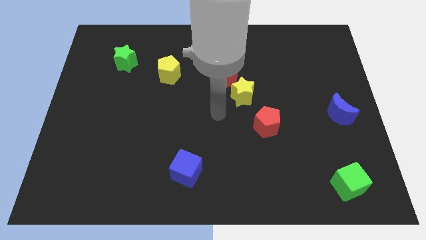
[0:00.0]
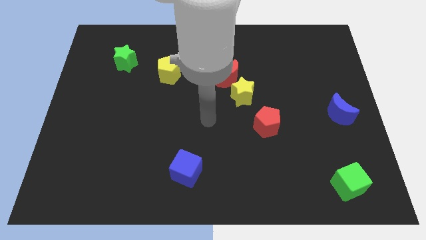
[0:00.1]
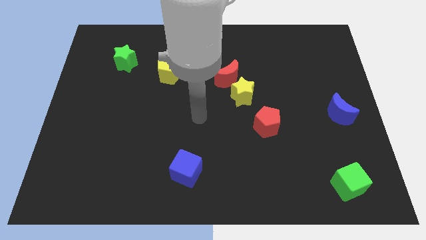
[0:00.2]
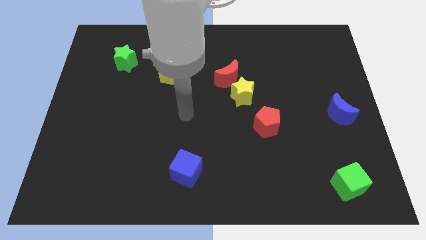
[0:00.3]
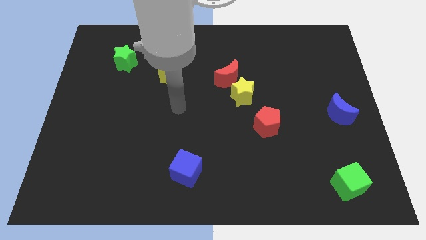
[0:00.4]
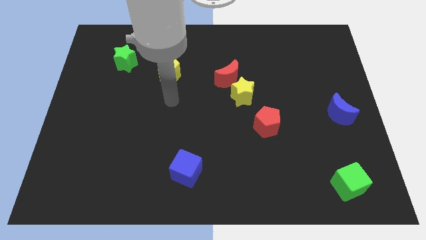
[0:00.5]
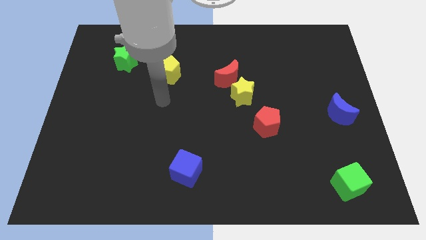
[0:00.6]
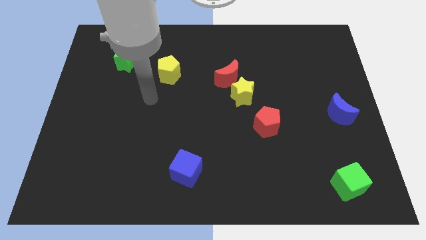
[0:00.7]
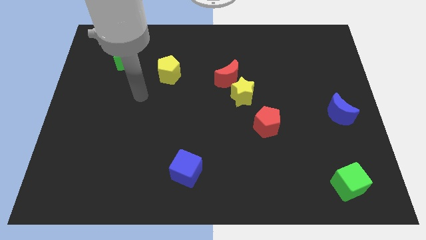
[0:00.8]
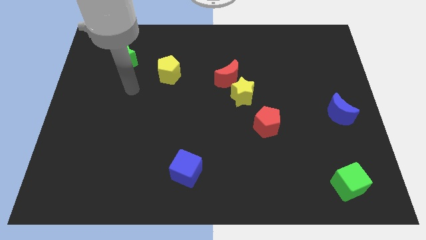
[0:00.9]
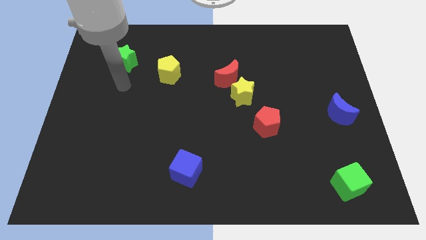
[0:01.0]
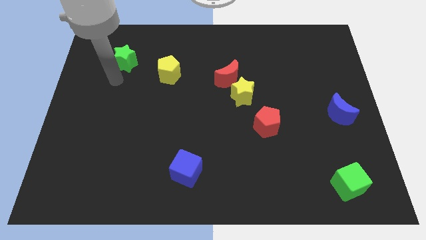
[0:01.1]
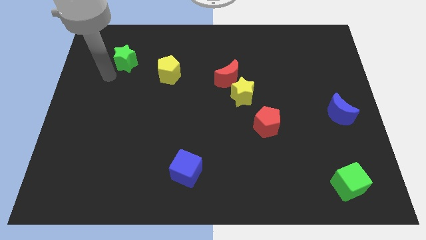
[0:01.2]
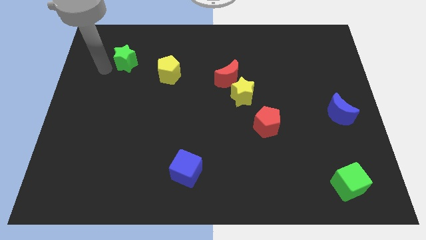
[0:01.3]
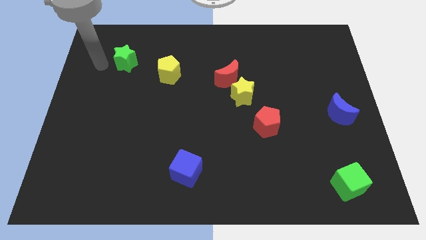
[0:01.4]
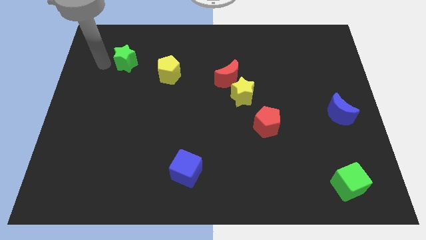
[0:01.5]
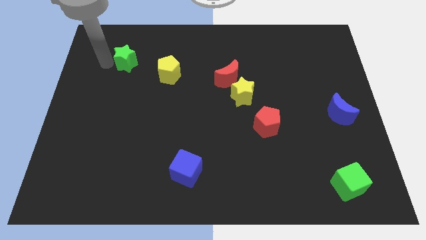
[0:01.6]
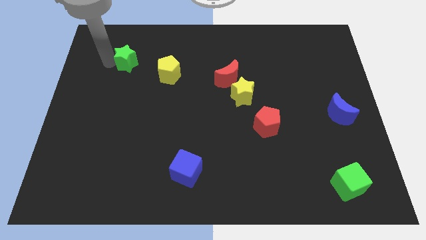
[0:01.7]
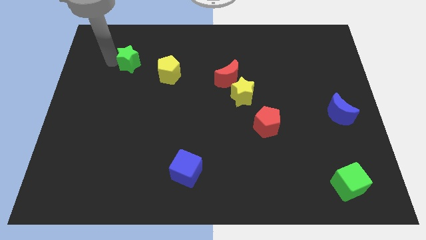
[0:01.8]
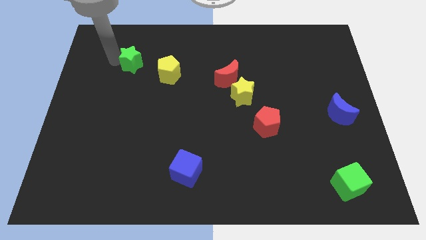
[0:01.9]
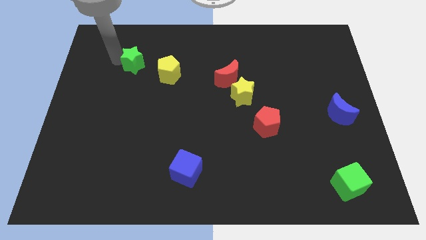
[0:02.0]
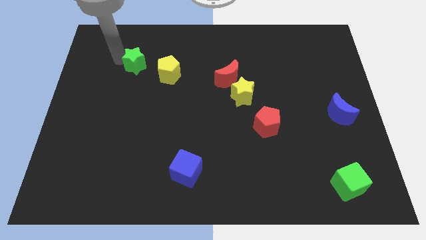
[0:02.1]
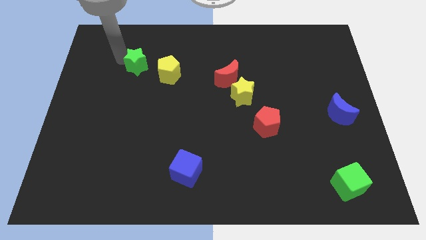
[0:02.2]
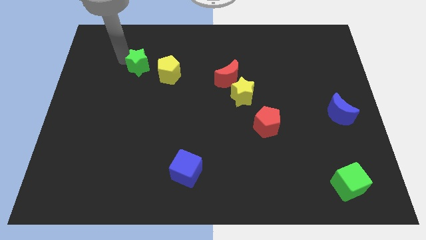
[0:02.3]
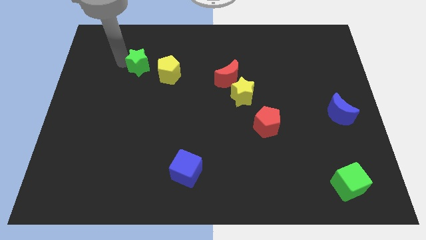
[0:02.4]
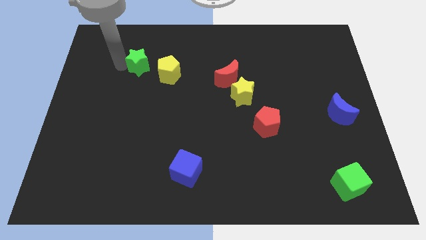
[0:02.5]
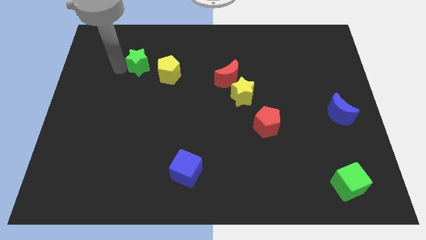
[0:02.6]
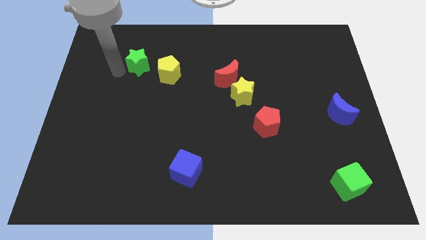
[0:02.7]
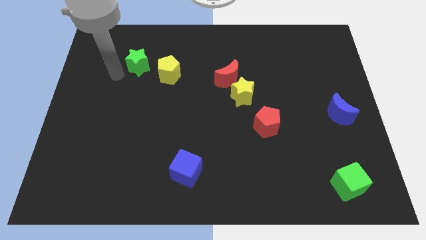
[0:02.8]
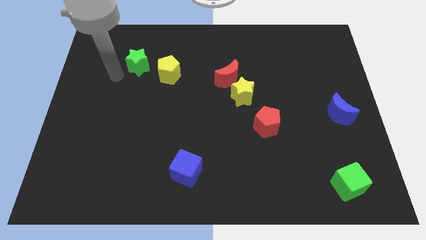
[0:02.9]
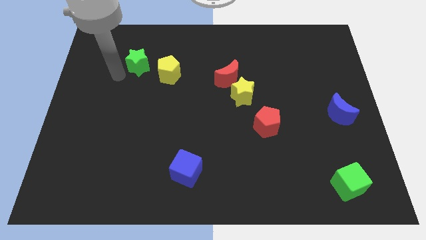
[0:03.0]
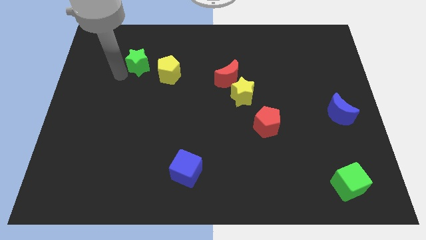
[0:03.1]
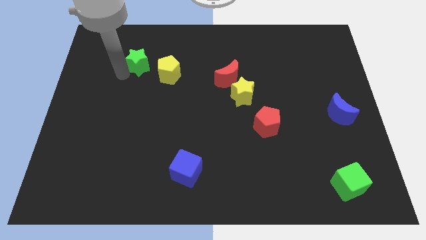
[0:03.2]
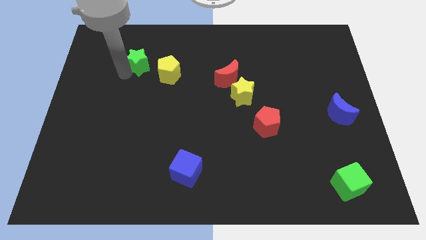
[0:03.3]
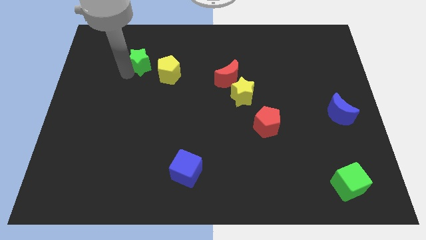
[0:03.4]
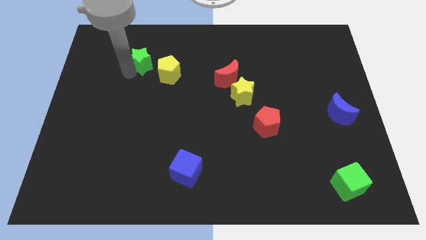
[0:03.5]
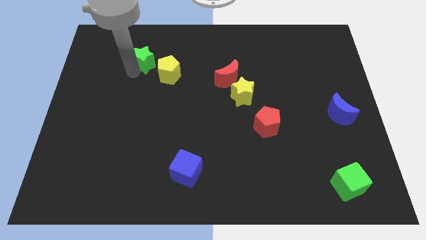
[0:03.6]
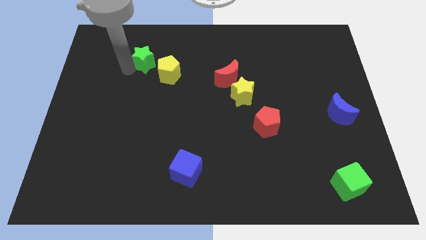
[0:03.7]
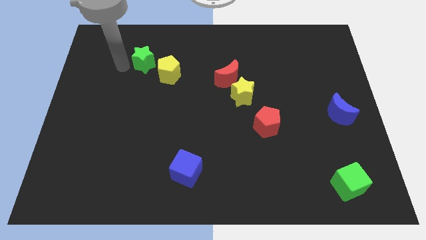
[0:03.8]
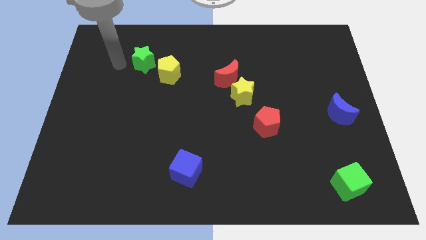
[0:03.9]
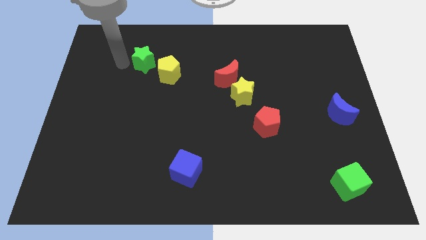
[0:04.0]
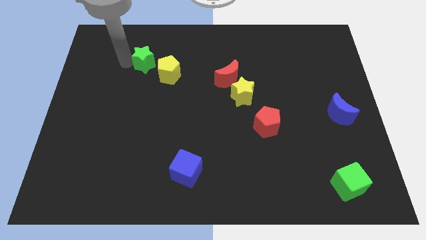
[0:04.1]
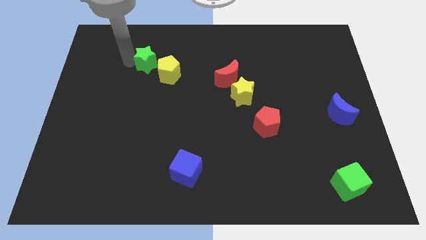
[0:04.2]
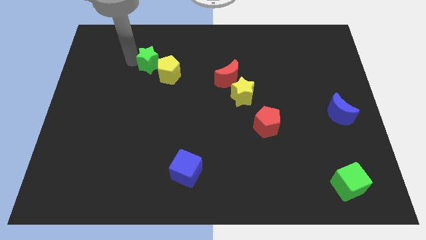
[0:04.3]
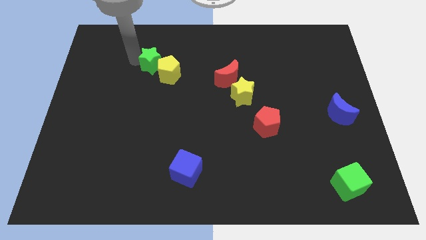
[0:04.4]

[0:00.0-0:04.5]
slightly push the green star to the right

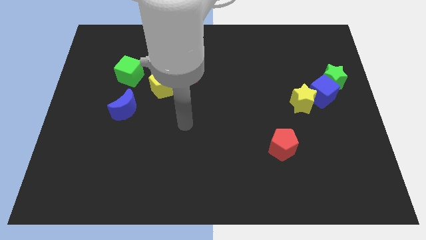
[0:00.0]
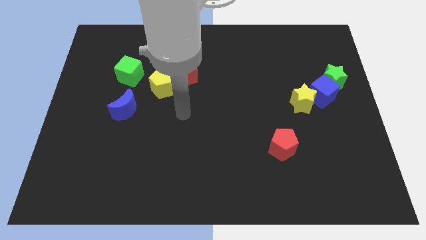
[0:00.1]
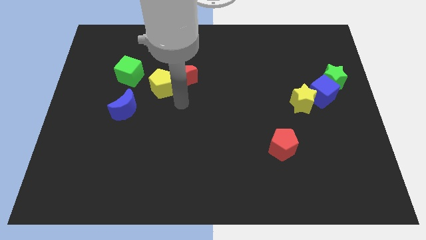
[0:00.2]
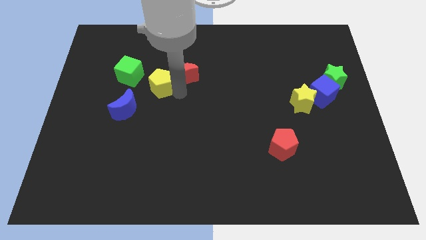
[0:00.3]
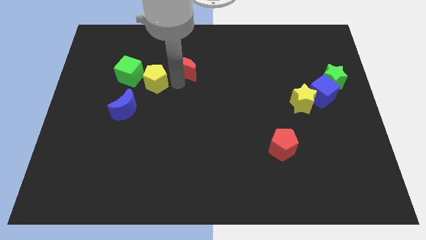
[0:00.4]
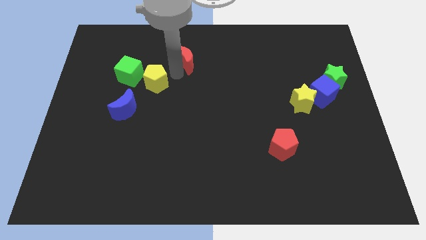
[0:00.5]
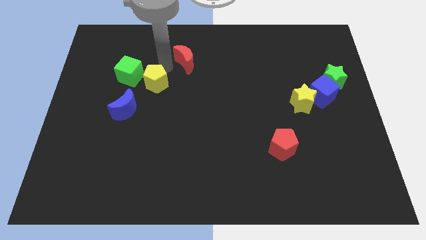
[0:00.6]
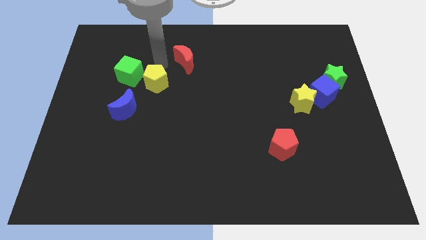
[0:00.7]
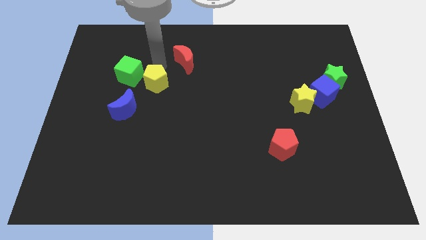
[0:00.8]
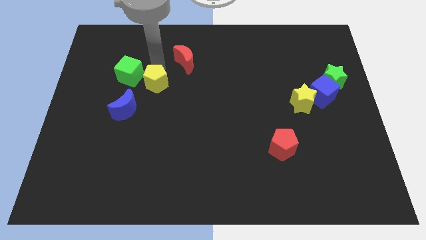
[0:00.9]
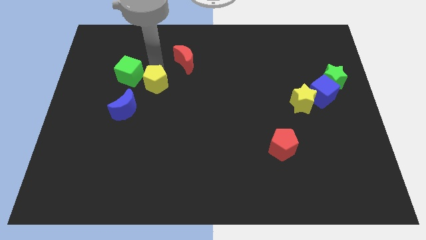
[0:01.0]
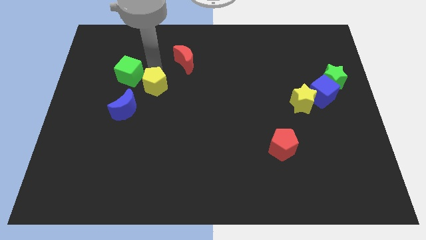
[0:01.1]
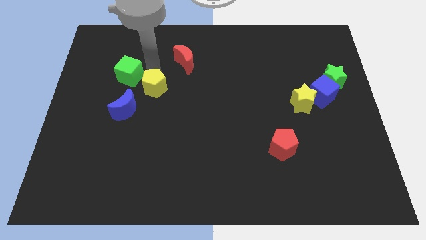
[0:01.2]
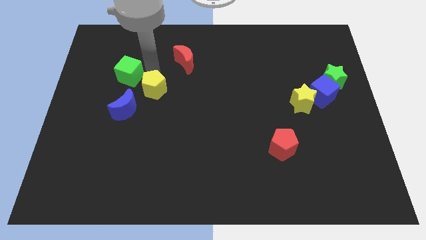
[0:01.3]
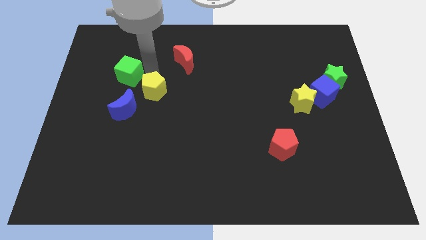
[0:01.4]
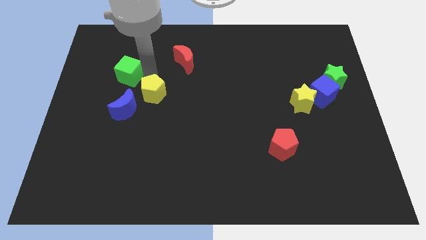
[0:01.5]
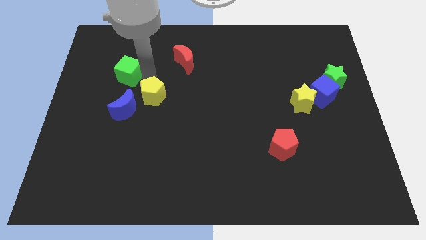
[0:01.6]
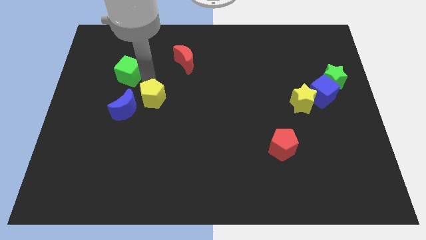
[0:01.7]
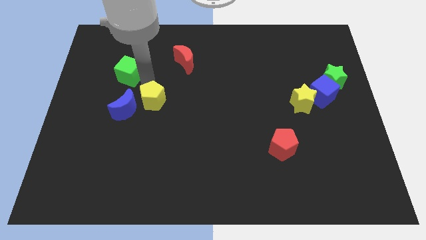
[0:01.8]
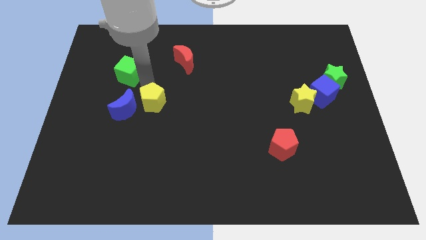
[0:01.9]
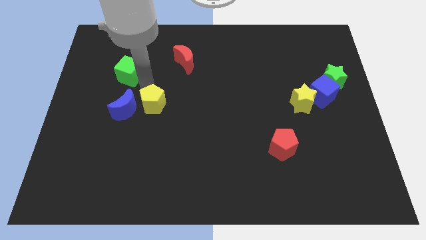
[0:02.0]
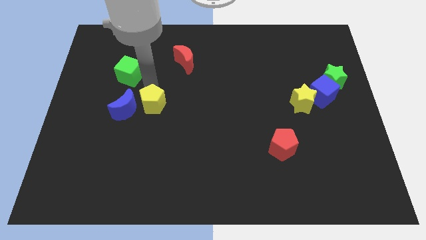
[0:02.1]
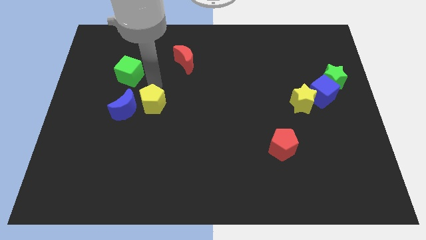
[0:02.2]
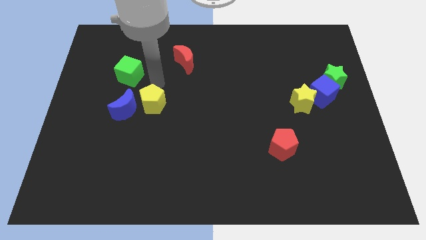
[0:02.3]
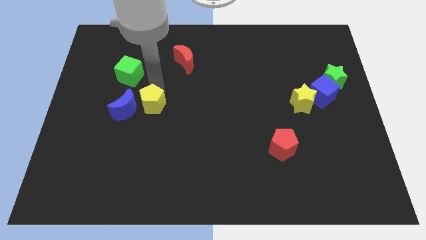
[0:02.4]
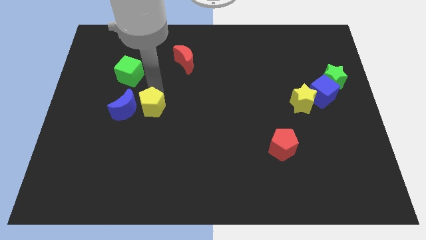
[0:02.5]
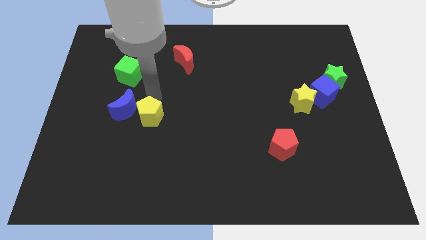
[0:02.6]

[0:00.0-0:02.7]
move the yellow pentagon downwards a bit

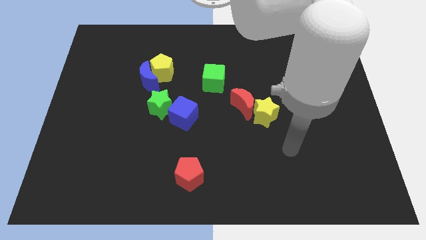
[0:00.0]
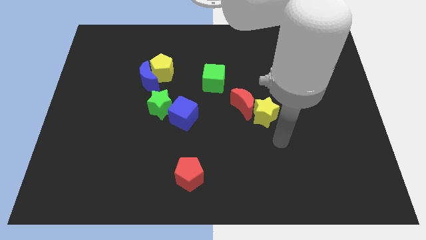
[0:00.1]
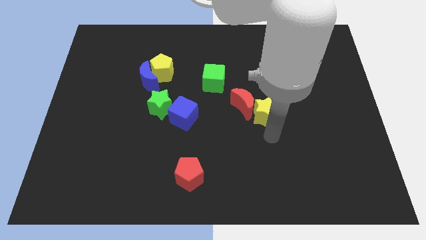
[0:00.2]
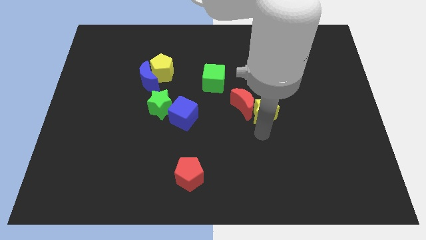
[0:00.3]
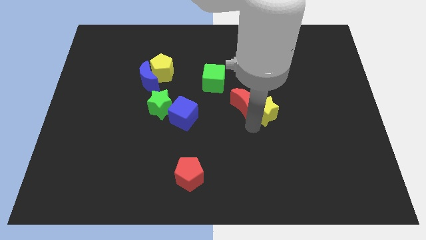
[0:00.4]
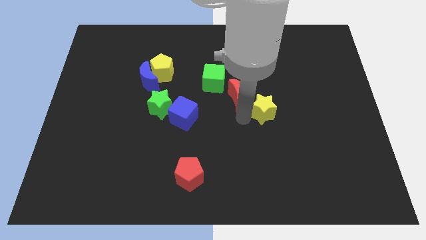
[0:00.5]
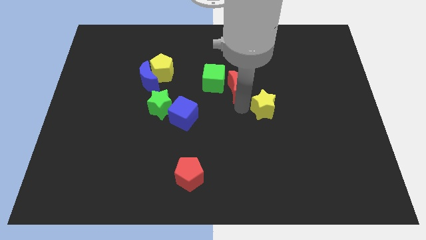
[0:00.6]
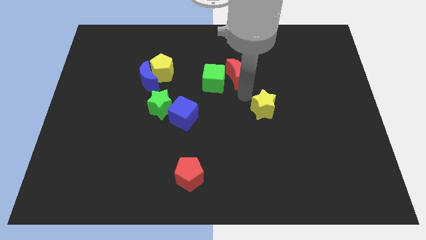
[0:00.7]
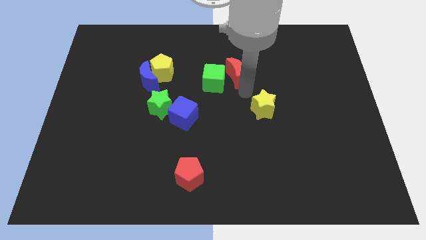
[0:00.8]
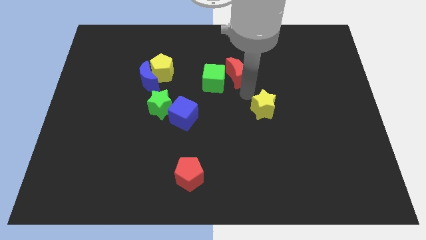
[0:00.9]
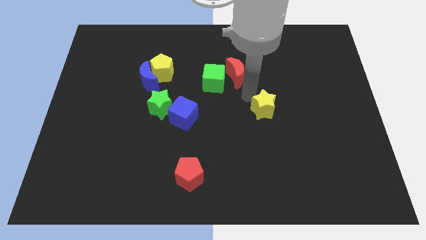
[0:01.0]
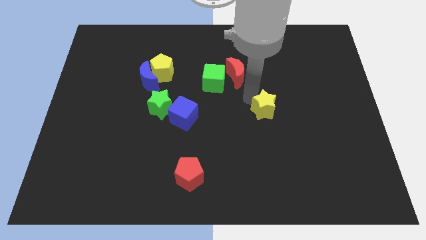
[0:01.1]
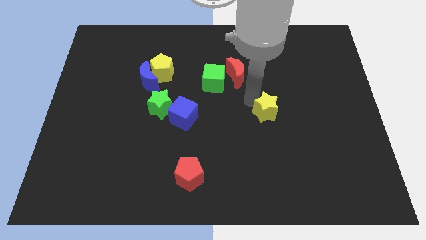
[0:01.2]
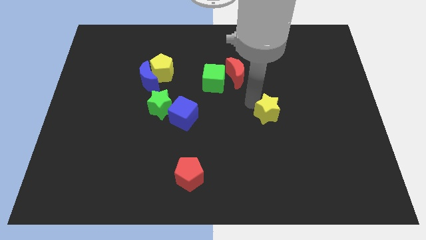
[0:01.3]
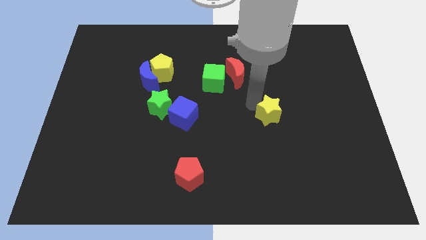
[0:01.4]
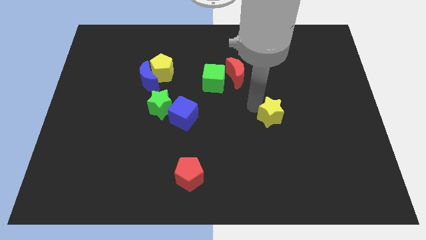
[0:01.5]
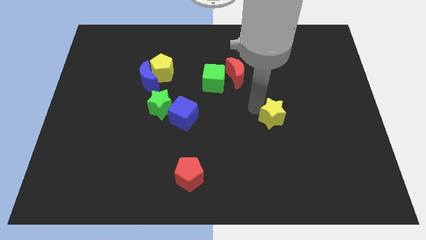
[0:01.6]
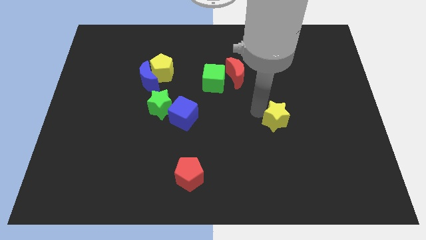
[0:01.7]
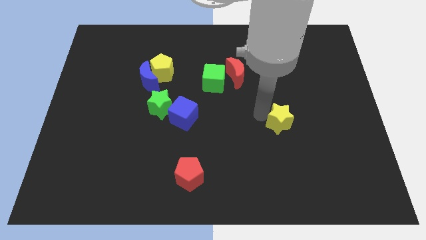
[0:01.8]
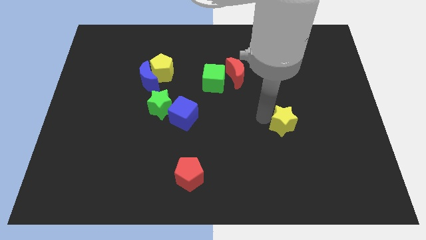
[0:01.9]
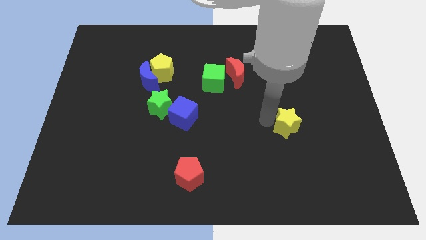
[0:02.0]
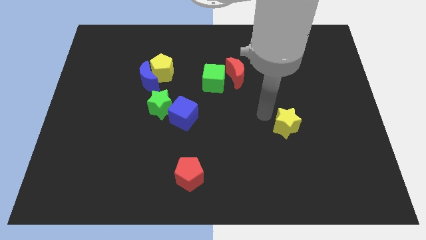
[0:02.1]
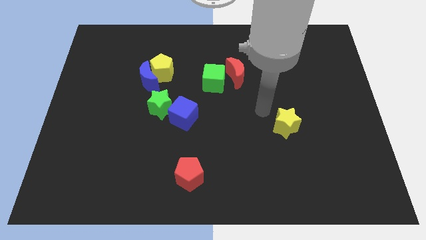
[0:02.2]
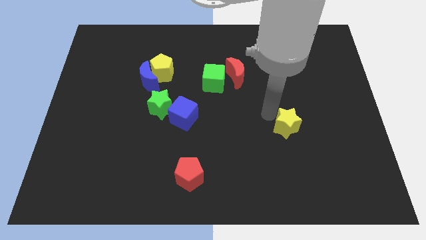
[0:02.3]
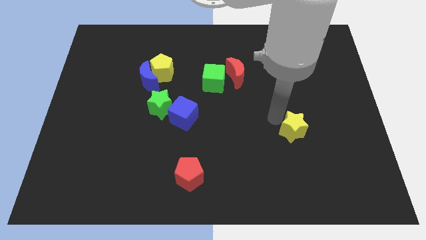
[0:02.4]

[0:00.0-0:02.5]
push the yellow star somewhat downwards and then to the right
